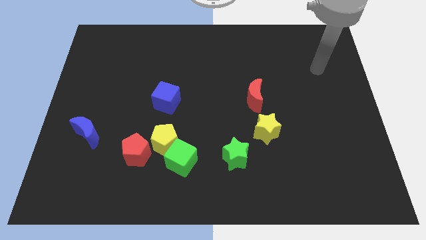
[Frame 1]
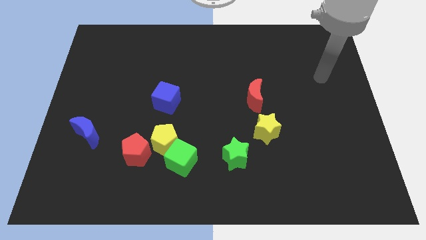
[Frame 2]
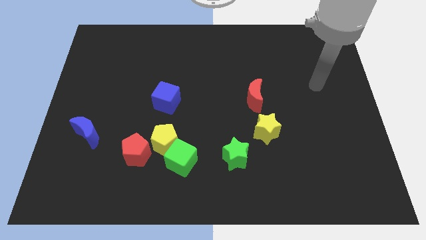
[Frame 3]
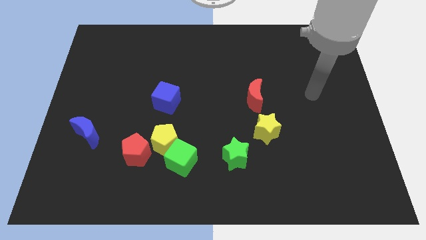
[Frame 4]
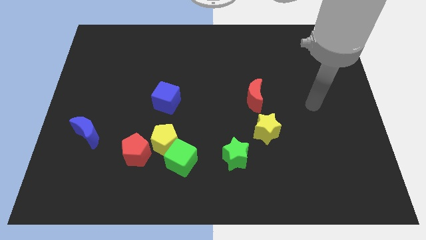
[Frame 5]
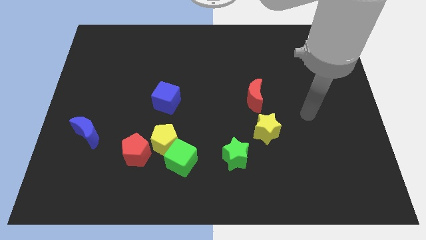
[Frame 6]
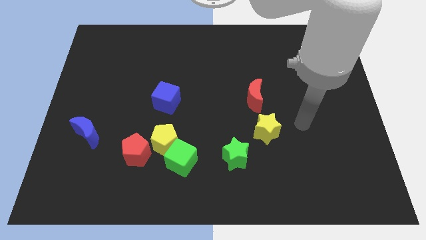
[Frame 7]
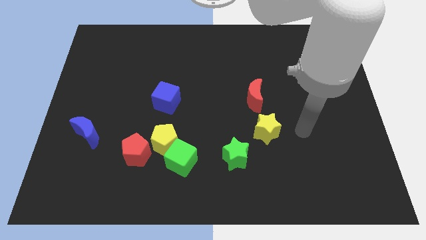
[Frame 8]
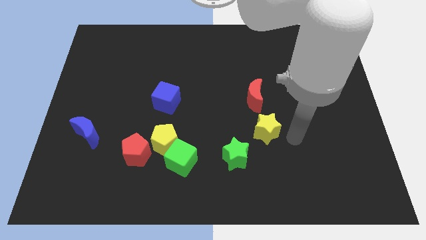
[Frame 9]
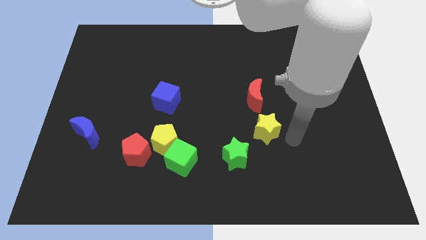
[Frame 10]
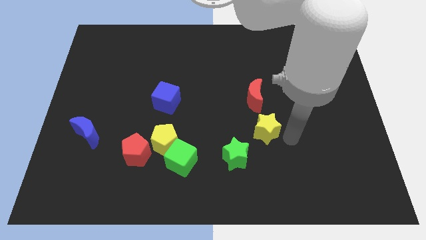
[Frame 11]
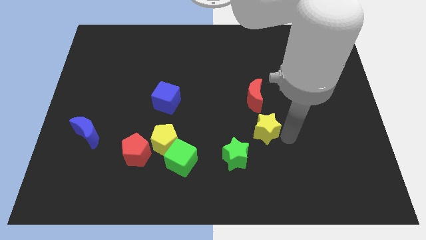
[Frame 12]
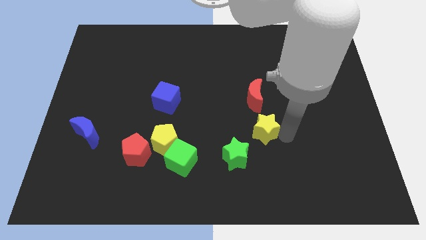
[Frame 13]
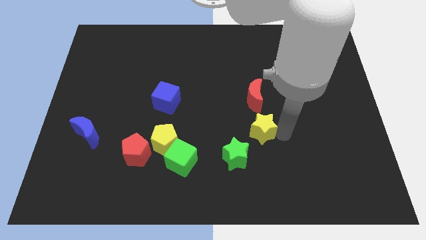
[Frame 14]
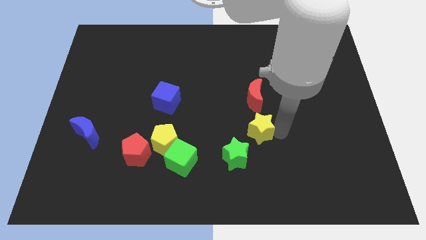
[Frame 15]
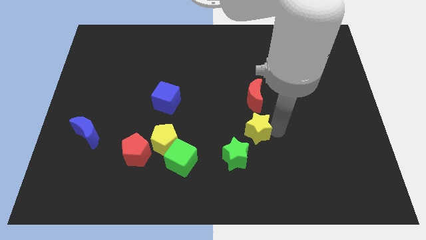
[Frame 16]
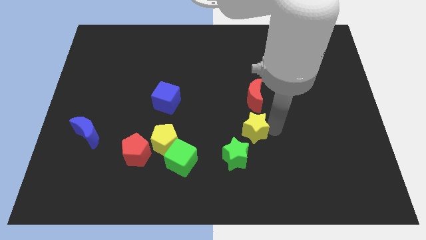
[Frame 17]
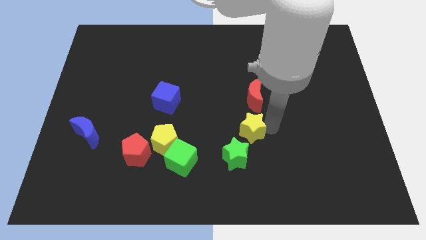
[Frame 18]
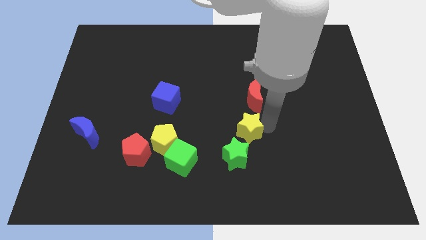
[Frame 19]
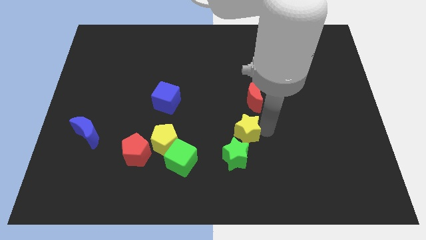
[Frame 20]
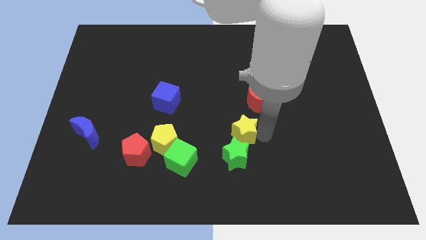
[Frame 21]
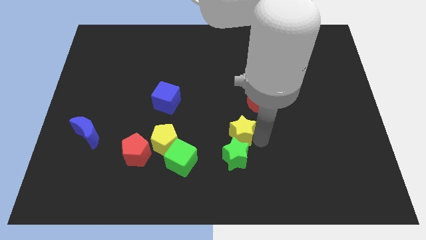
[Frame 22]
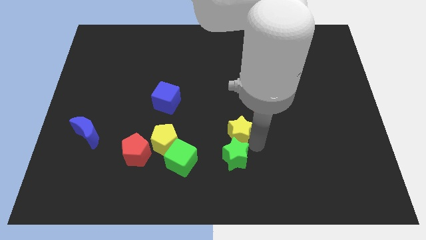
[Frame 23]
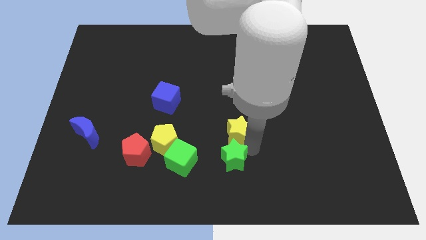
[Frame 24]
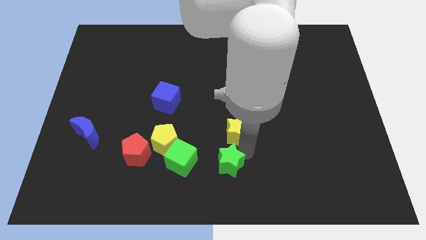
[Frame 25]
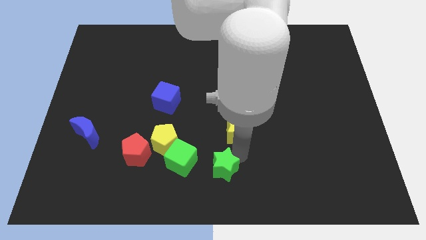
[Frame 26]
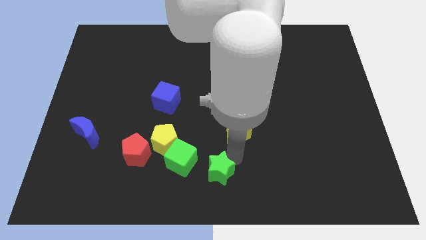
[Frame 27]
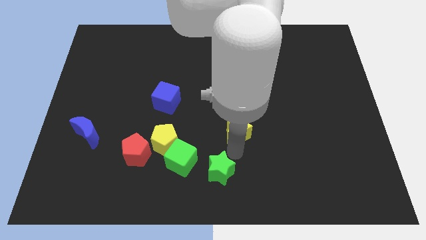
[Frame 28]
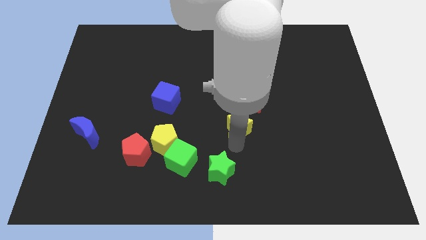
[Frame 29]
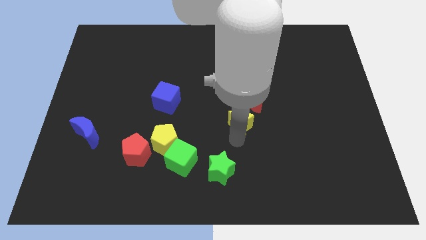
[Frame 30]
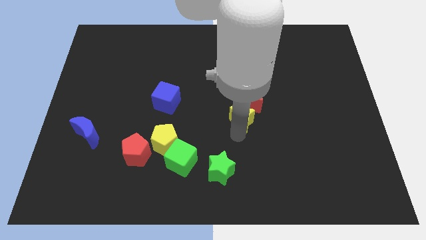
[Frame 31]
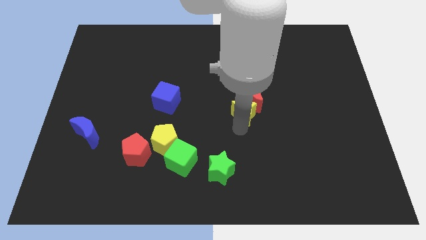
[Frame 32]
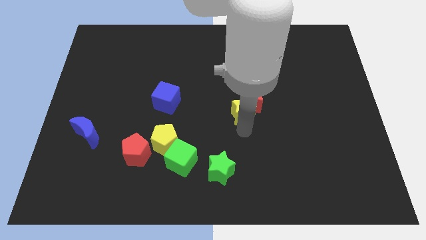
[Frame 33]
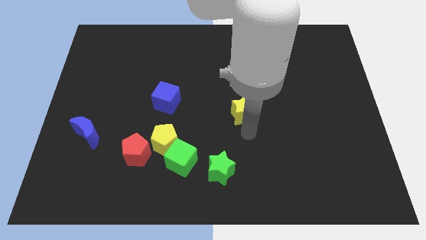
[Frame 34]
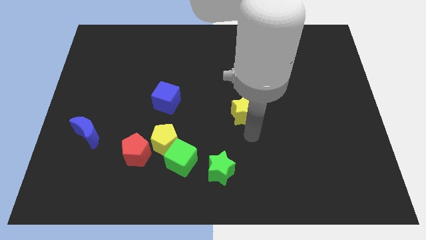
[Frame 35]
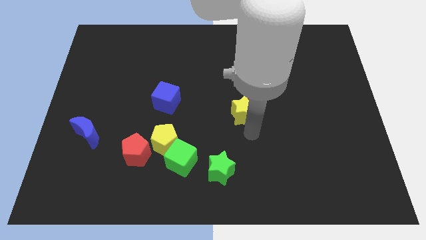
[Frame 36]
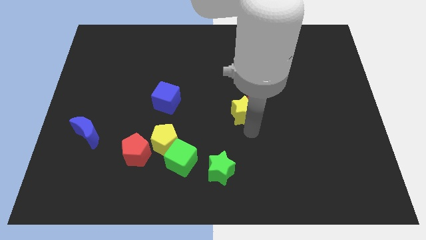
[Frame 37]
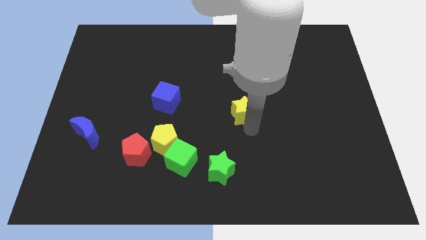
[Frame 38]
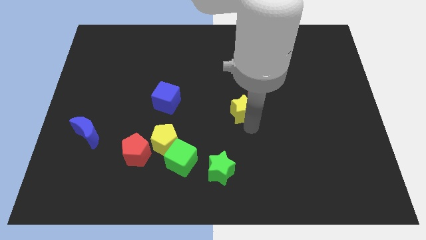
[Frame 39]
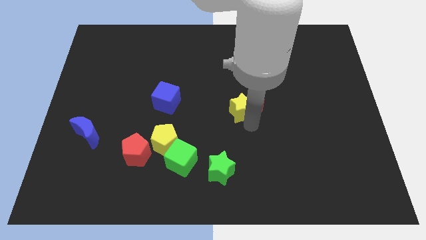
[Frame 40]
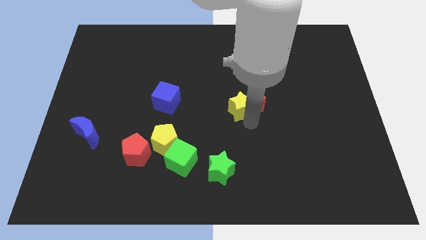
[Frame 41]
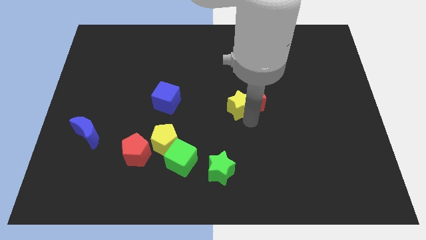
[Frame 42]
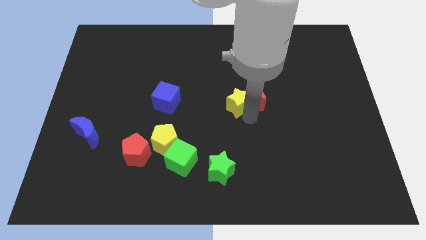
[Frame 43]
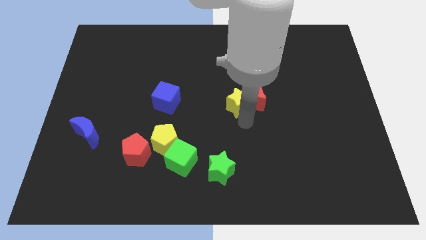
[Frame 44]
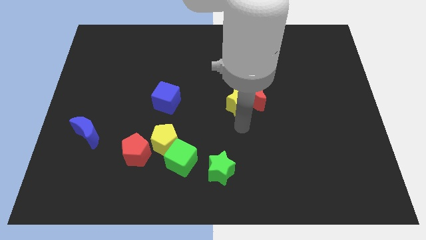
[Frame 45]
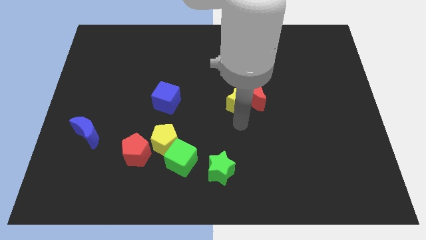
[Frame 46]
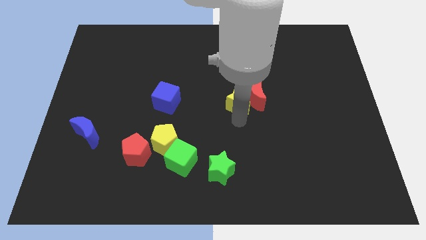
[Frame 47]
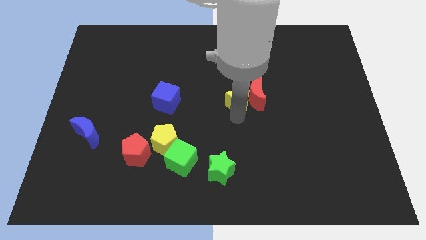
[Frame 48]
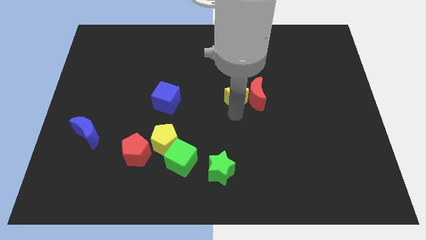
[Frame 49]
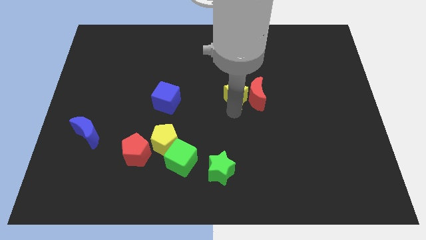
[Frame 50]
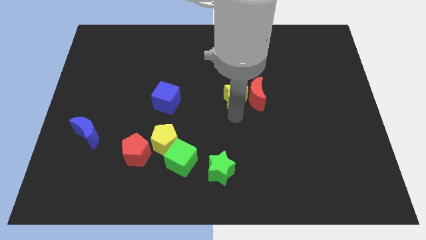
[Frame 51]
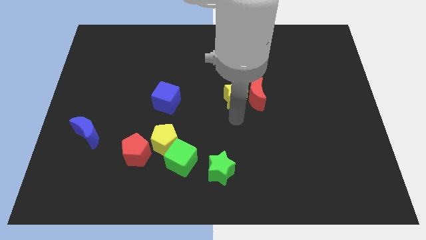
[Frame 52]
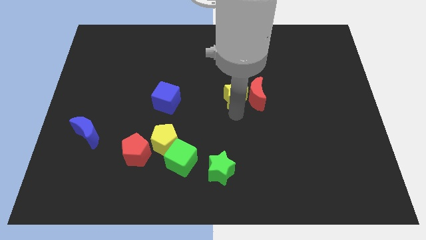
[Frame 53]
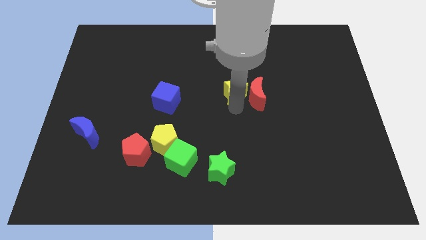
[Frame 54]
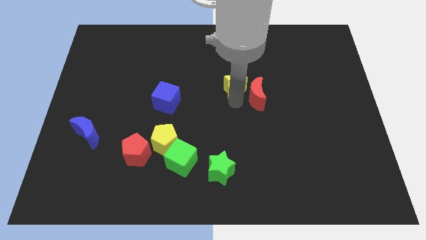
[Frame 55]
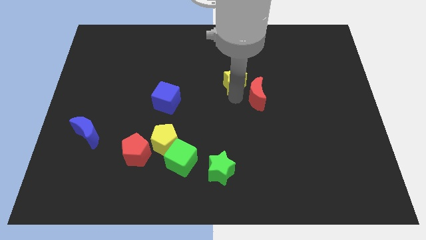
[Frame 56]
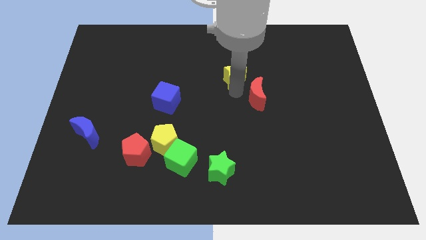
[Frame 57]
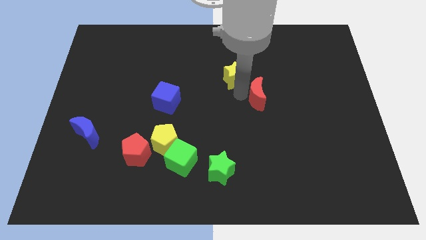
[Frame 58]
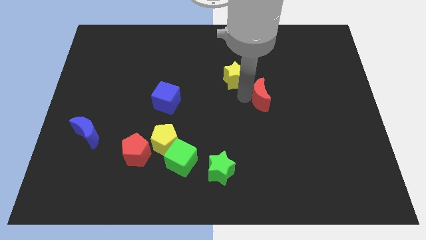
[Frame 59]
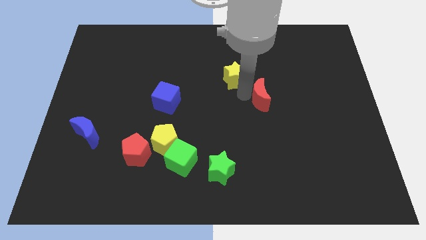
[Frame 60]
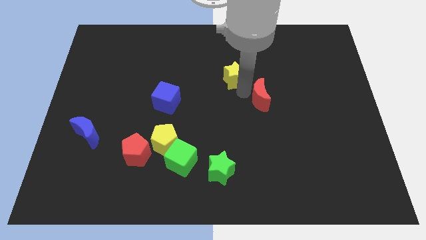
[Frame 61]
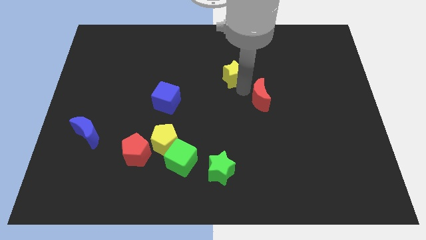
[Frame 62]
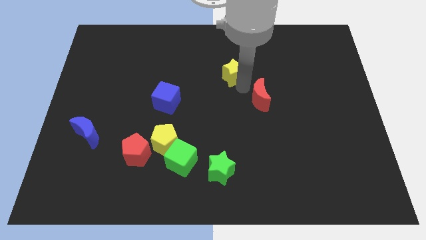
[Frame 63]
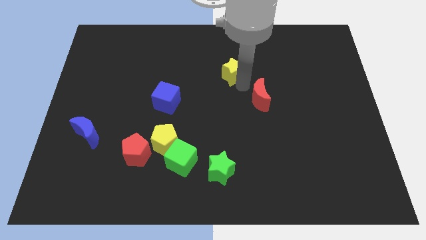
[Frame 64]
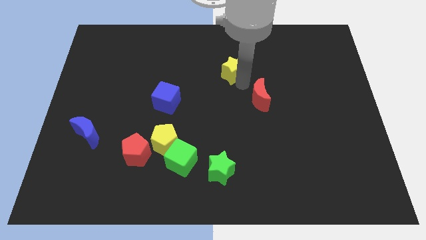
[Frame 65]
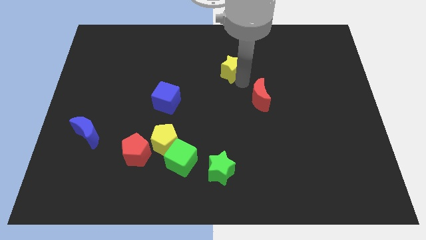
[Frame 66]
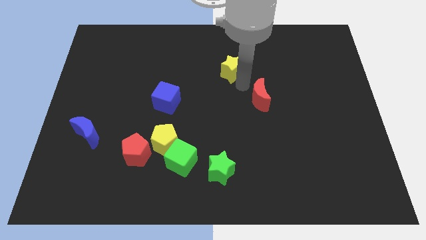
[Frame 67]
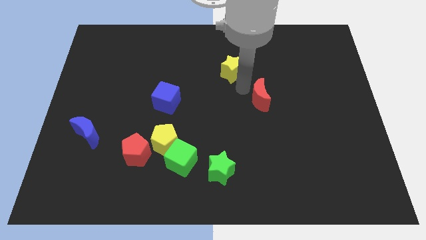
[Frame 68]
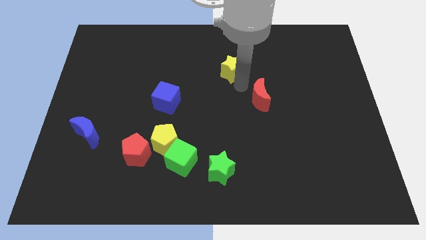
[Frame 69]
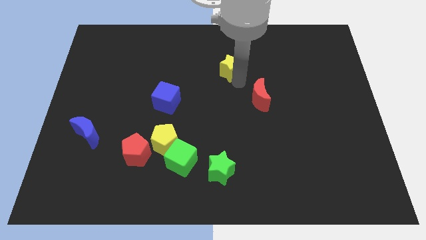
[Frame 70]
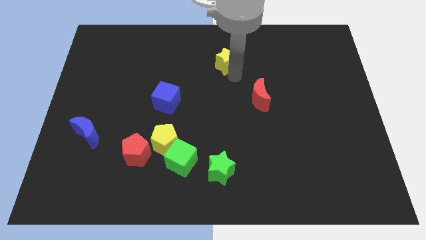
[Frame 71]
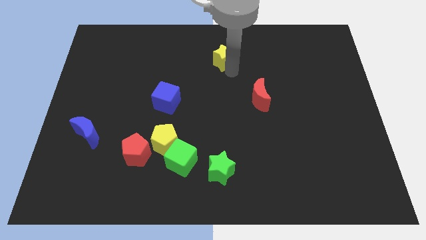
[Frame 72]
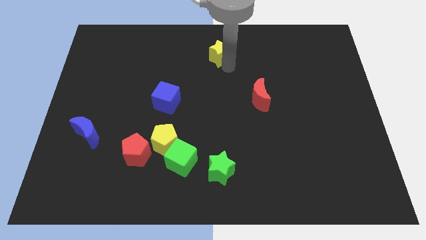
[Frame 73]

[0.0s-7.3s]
push the yellow star to the top side
